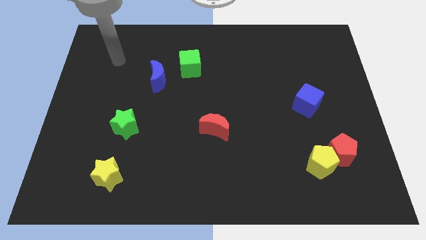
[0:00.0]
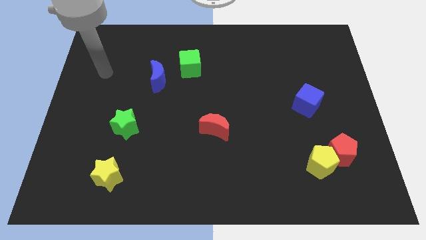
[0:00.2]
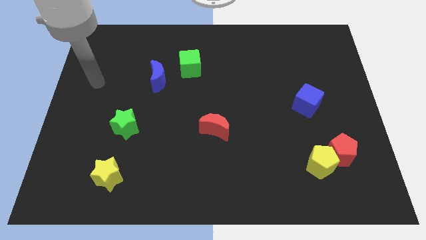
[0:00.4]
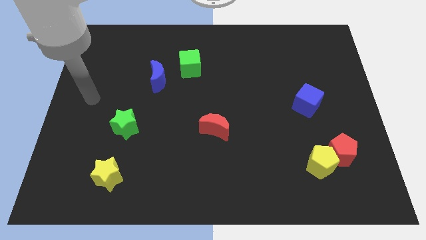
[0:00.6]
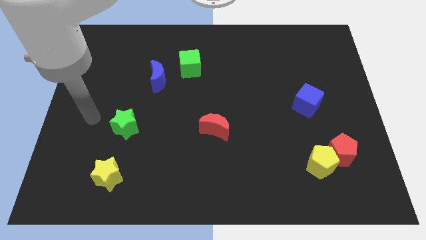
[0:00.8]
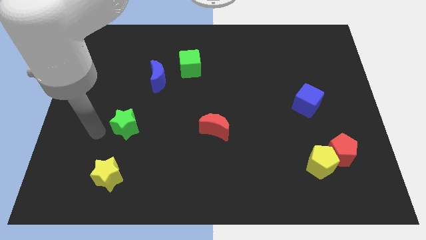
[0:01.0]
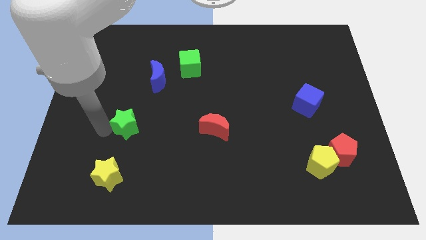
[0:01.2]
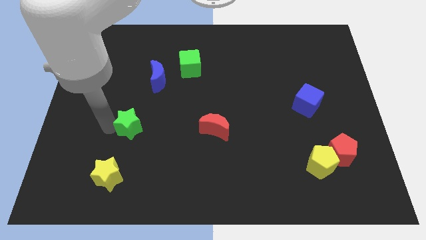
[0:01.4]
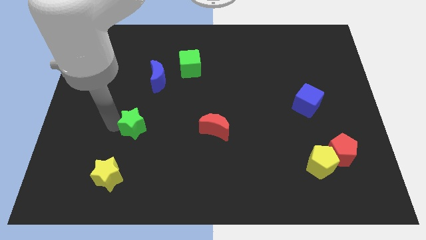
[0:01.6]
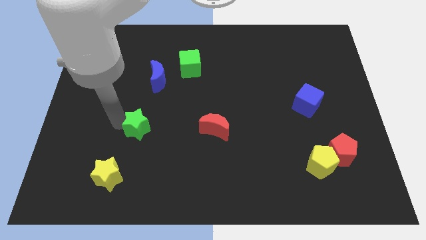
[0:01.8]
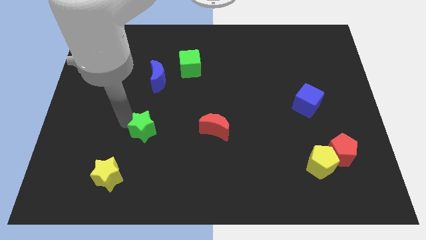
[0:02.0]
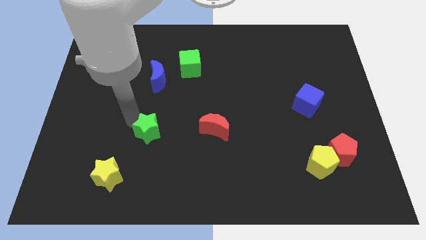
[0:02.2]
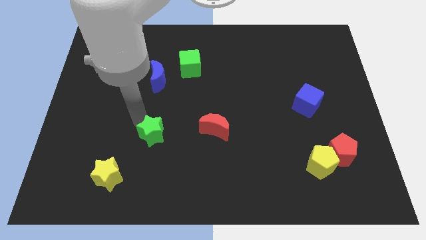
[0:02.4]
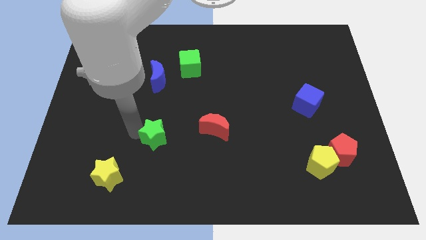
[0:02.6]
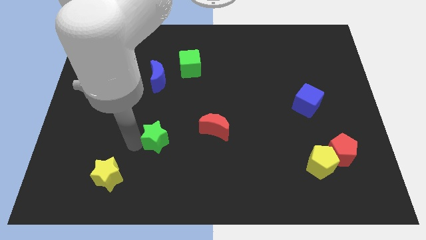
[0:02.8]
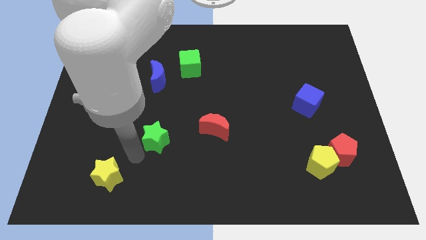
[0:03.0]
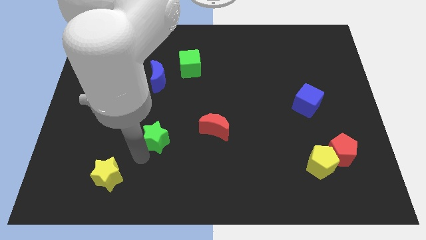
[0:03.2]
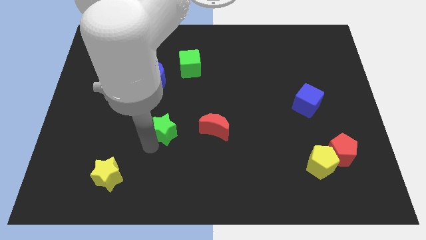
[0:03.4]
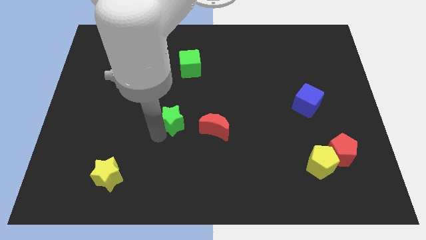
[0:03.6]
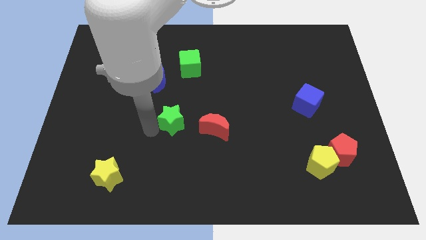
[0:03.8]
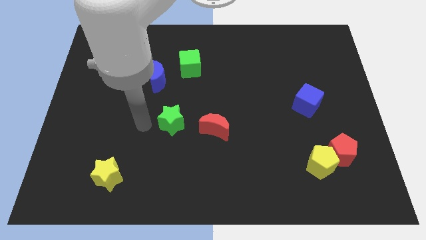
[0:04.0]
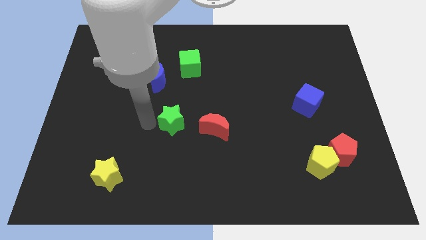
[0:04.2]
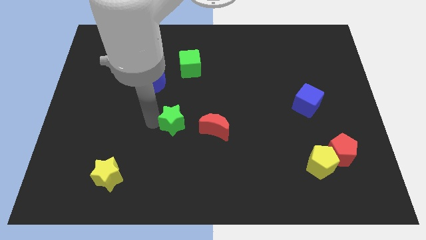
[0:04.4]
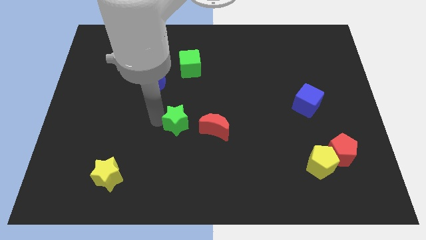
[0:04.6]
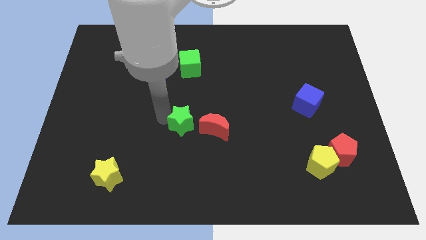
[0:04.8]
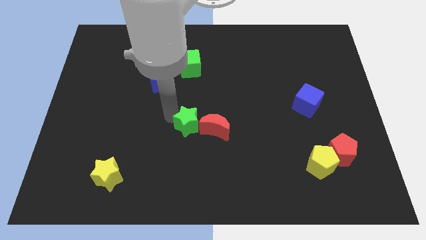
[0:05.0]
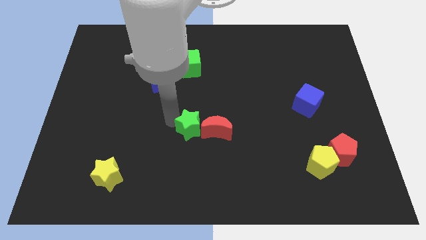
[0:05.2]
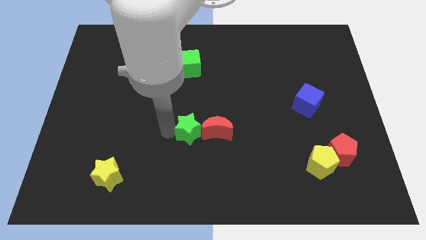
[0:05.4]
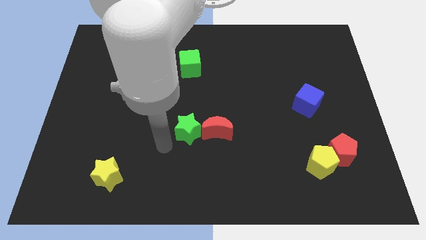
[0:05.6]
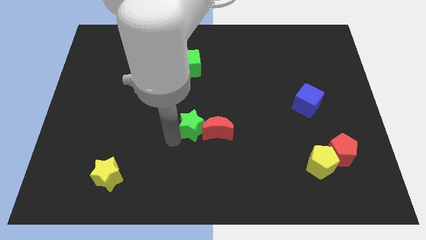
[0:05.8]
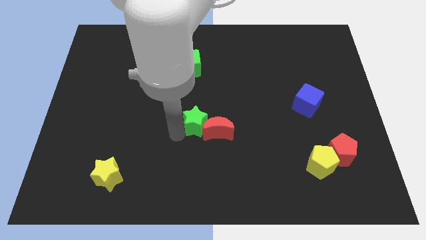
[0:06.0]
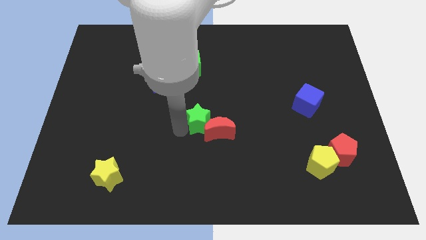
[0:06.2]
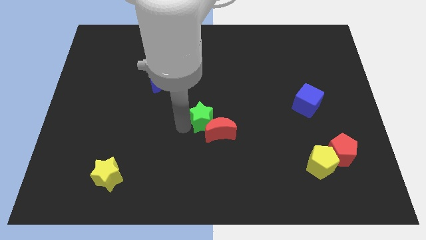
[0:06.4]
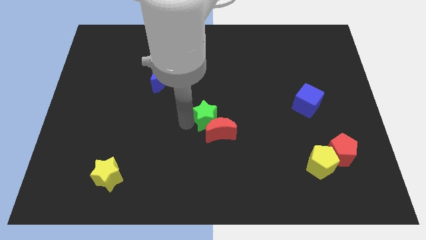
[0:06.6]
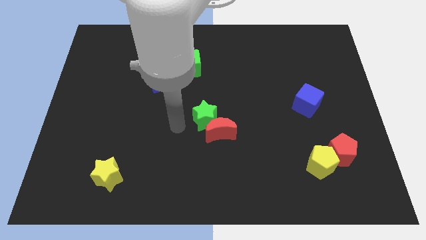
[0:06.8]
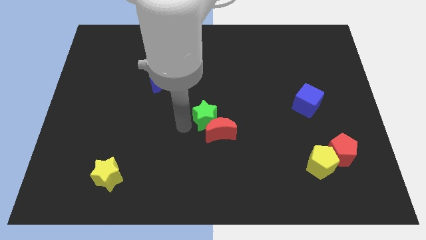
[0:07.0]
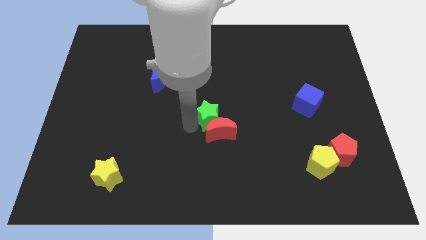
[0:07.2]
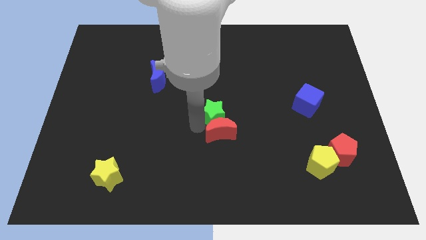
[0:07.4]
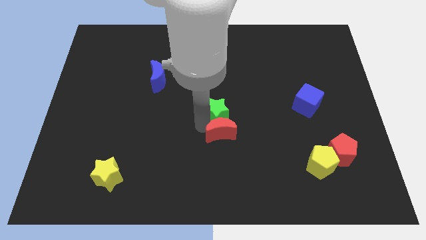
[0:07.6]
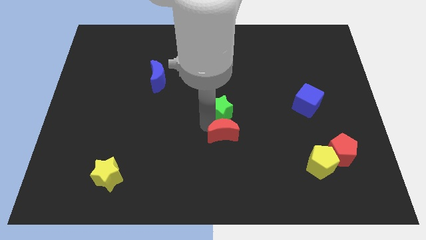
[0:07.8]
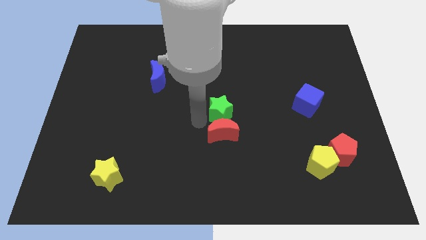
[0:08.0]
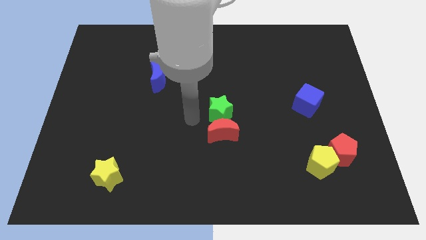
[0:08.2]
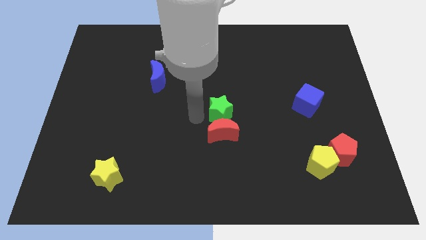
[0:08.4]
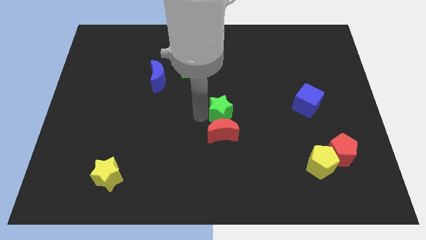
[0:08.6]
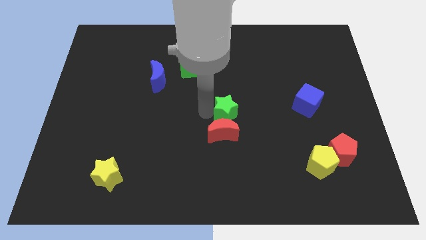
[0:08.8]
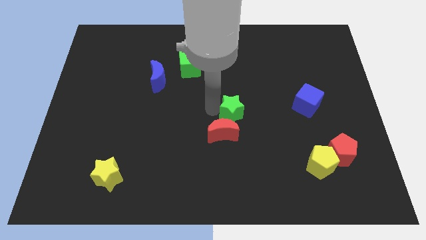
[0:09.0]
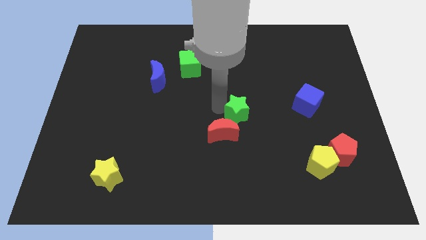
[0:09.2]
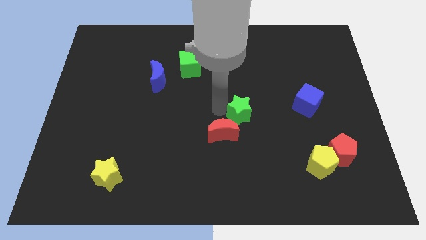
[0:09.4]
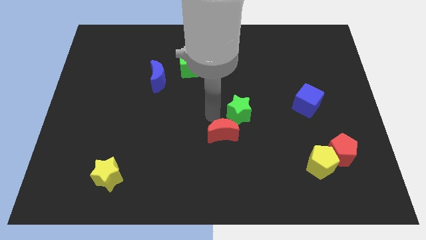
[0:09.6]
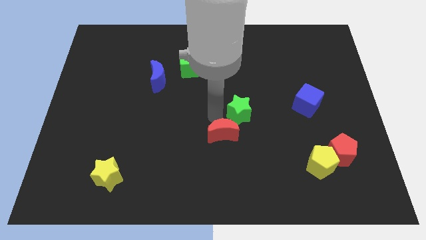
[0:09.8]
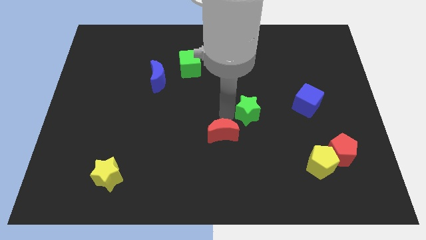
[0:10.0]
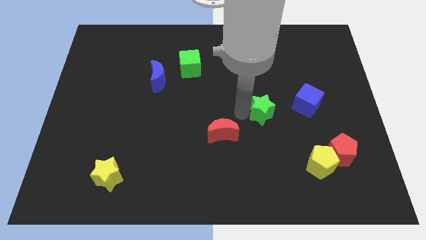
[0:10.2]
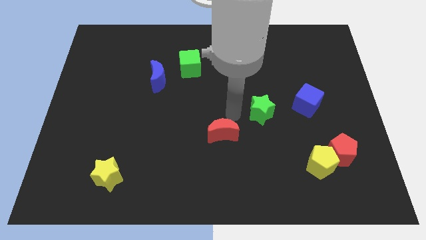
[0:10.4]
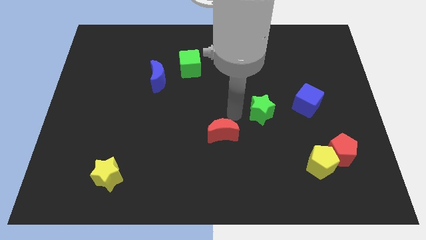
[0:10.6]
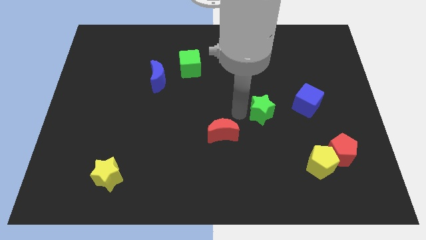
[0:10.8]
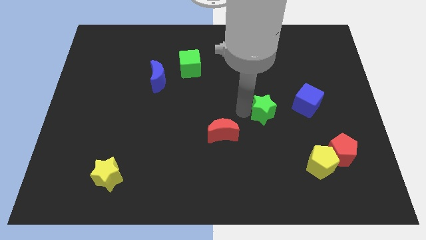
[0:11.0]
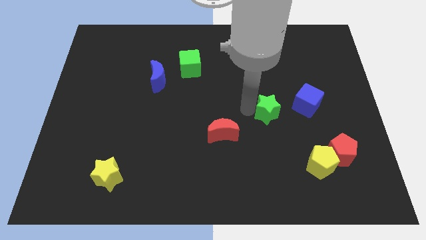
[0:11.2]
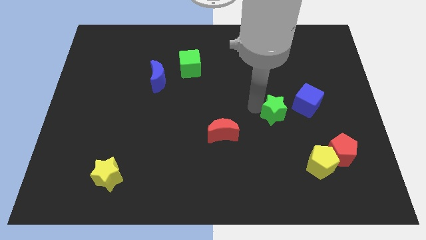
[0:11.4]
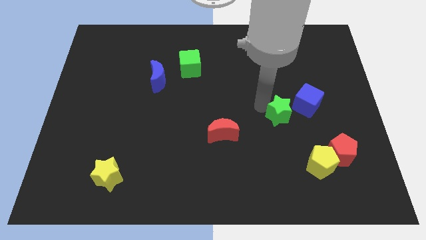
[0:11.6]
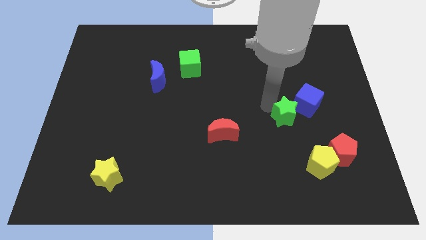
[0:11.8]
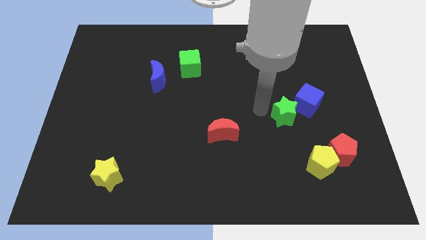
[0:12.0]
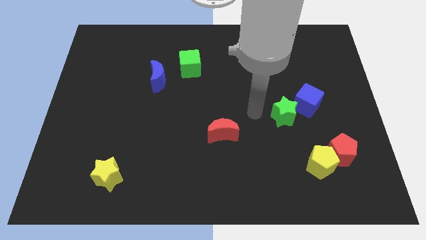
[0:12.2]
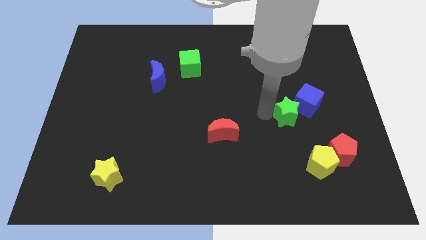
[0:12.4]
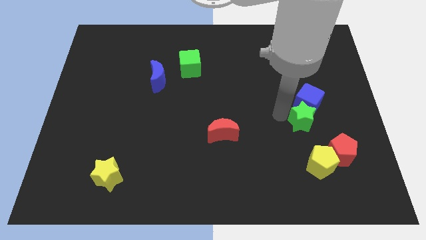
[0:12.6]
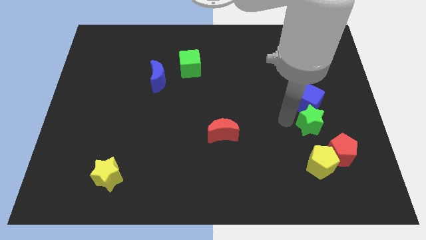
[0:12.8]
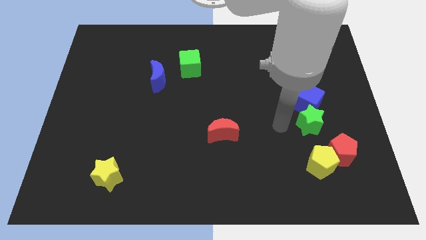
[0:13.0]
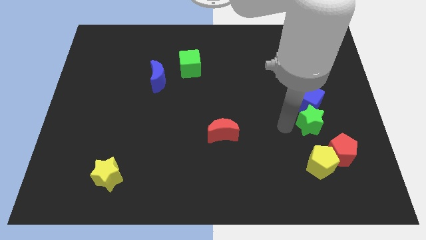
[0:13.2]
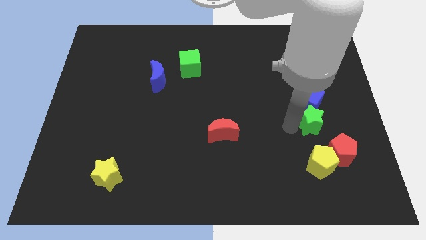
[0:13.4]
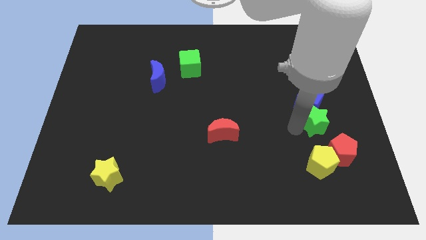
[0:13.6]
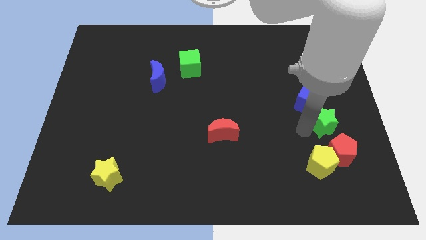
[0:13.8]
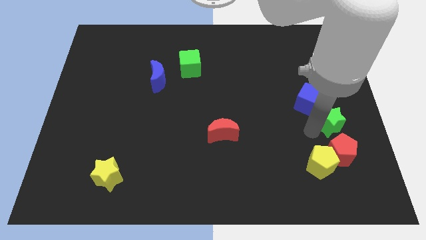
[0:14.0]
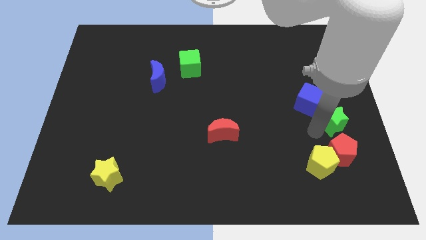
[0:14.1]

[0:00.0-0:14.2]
put the green star to the center right
